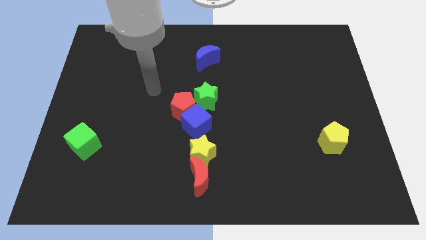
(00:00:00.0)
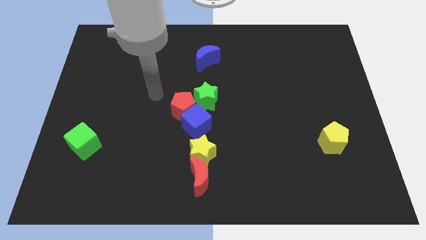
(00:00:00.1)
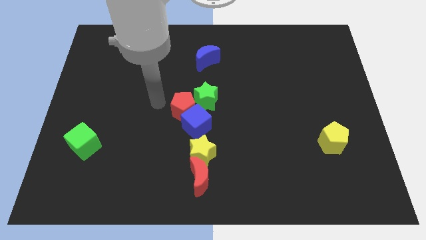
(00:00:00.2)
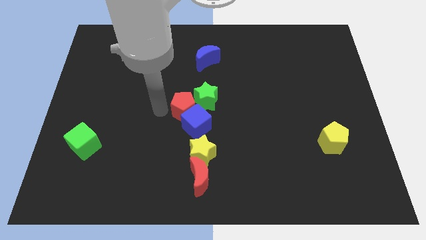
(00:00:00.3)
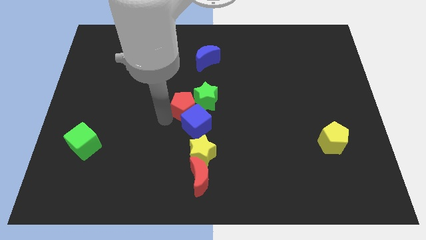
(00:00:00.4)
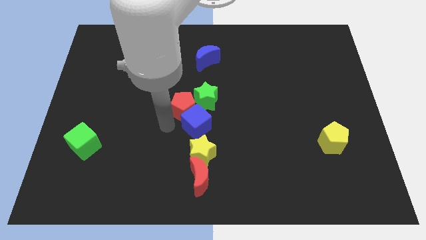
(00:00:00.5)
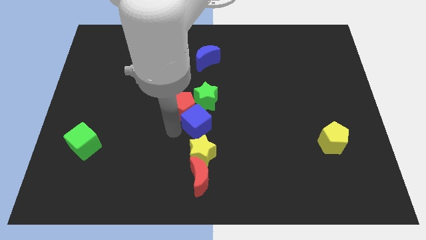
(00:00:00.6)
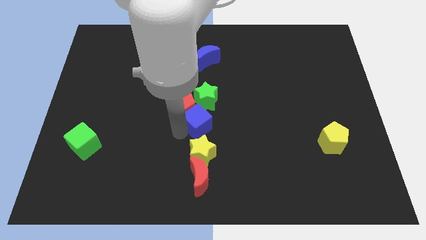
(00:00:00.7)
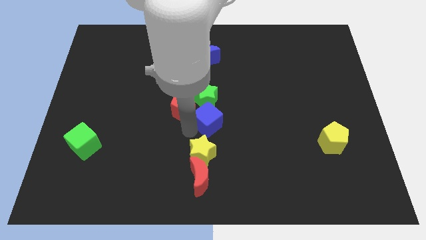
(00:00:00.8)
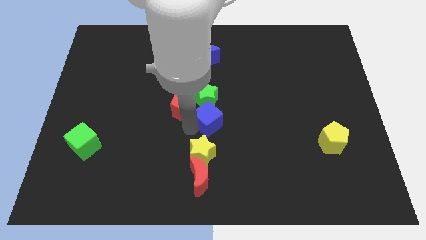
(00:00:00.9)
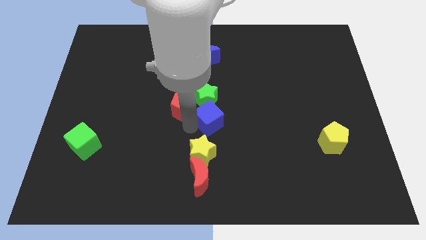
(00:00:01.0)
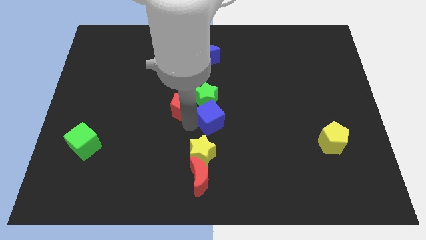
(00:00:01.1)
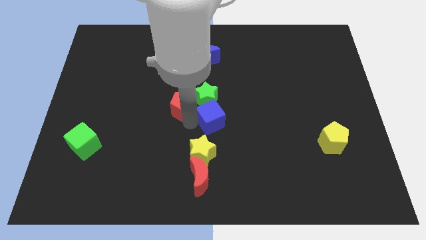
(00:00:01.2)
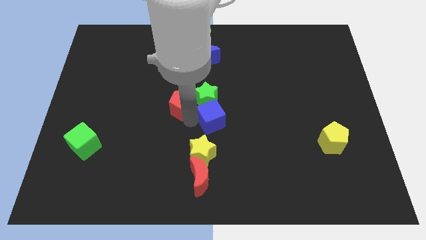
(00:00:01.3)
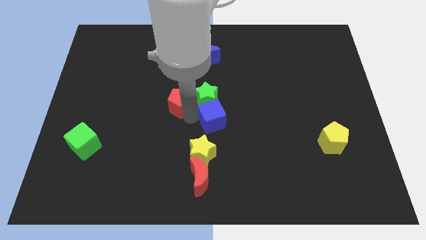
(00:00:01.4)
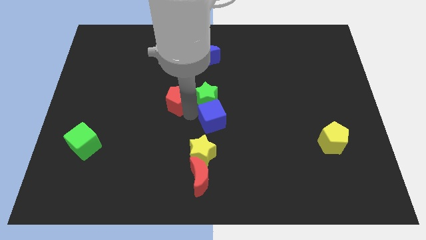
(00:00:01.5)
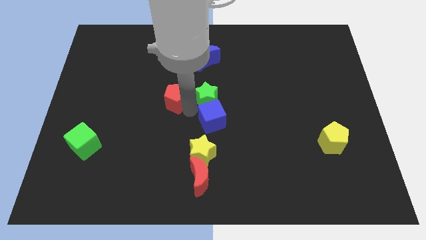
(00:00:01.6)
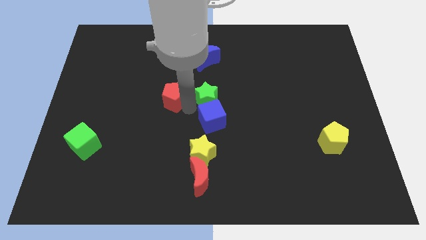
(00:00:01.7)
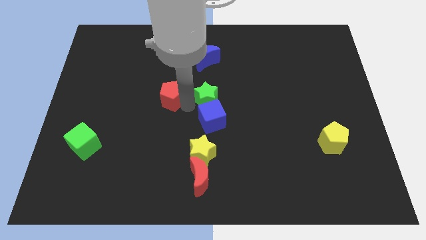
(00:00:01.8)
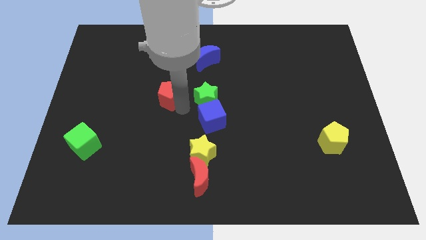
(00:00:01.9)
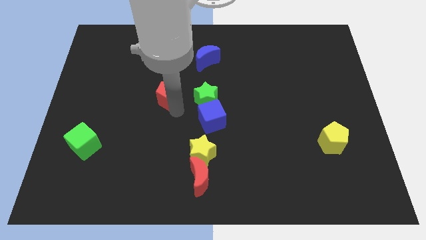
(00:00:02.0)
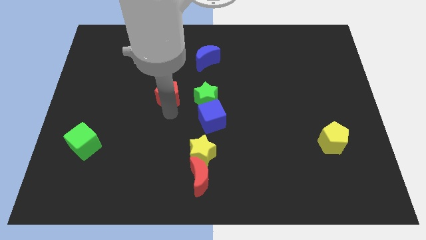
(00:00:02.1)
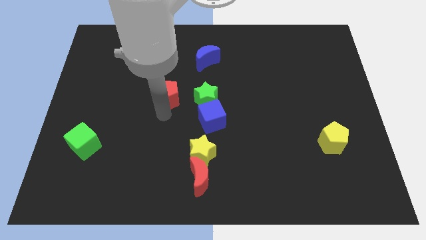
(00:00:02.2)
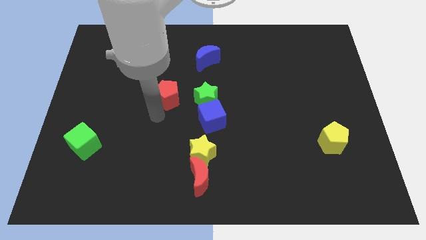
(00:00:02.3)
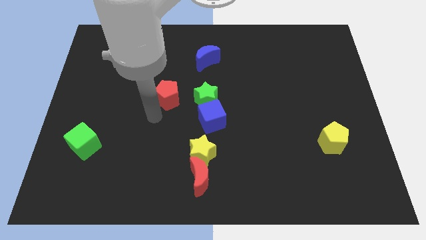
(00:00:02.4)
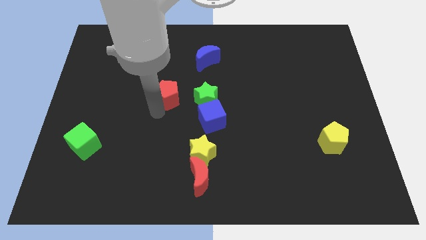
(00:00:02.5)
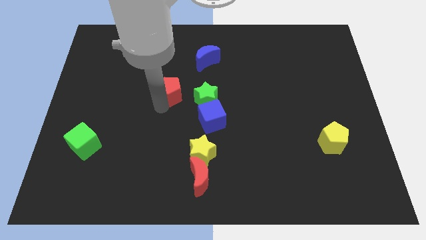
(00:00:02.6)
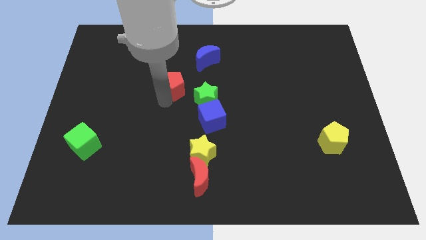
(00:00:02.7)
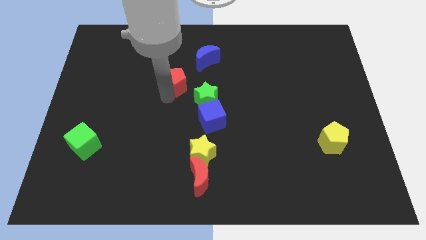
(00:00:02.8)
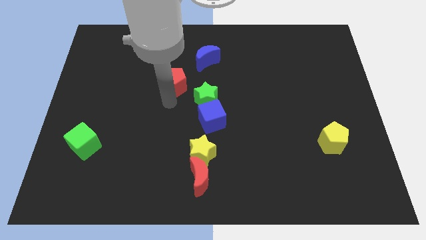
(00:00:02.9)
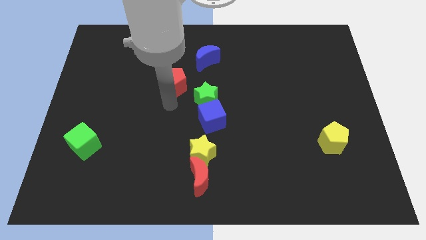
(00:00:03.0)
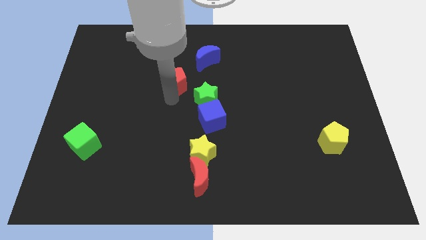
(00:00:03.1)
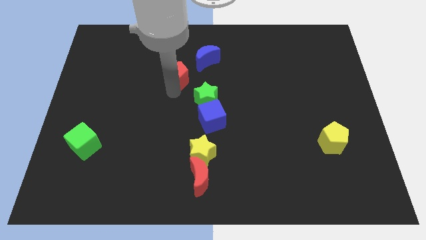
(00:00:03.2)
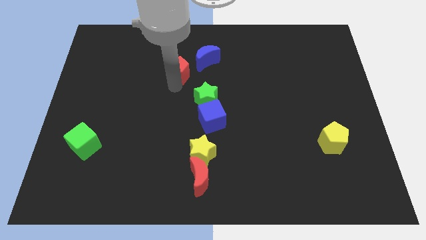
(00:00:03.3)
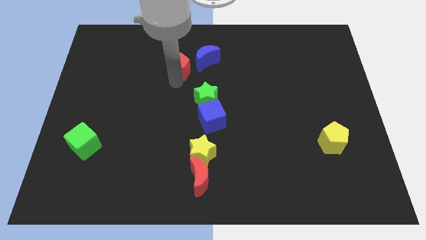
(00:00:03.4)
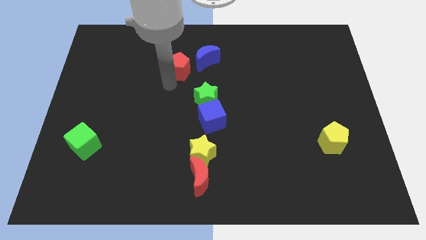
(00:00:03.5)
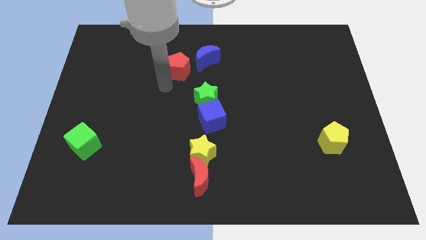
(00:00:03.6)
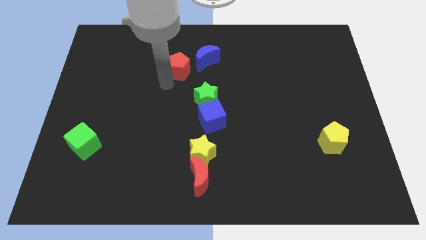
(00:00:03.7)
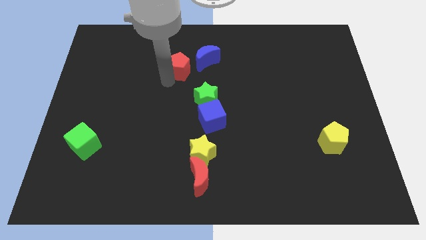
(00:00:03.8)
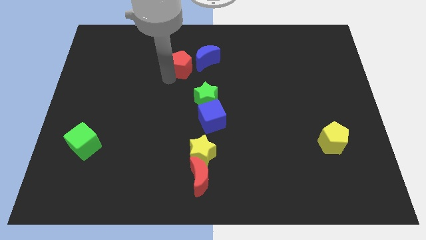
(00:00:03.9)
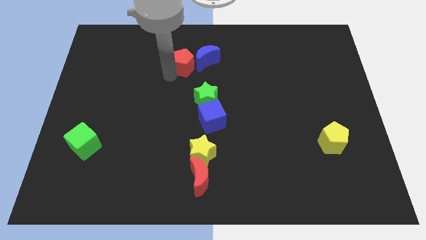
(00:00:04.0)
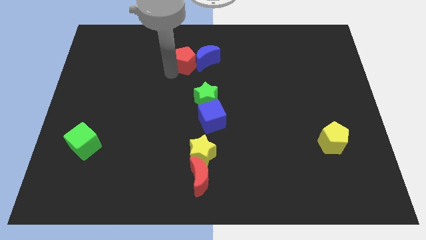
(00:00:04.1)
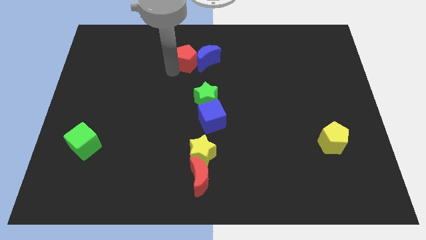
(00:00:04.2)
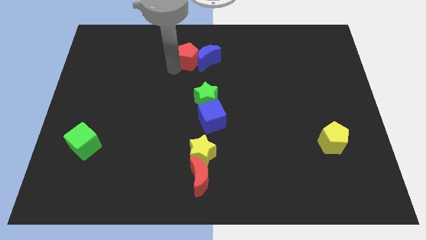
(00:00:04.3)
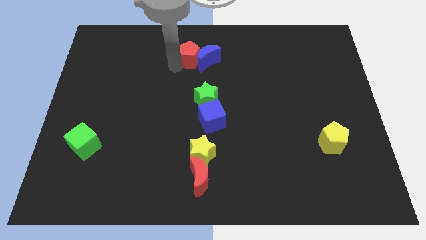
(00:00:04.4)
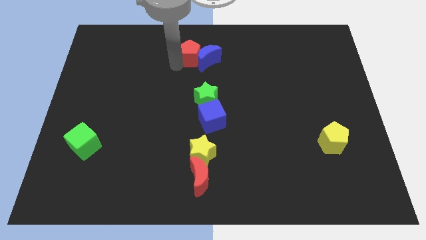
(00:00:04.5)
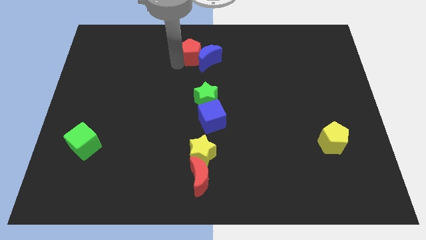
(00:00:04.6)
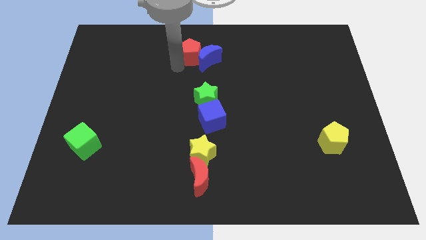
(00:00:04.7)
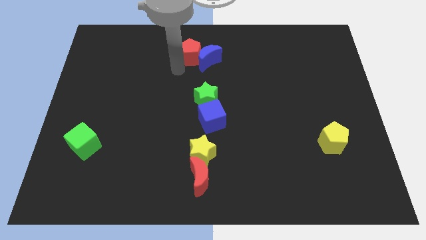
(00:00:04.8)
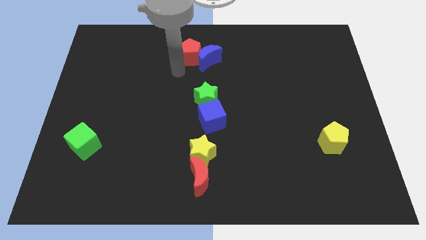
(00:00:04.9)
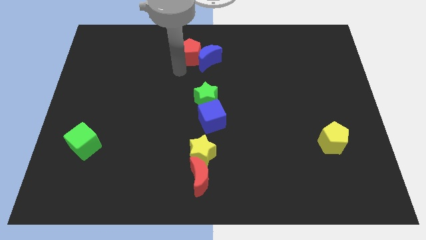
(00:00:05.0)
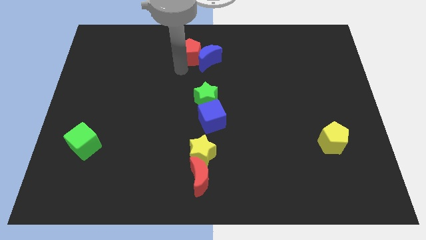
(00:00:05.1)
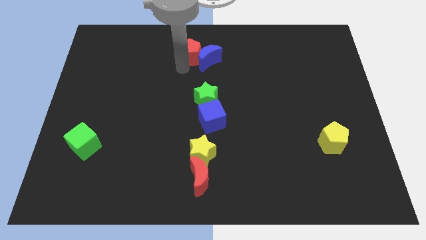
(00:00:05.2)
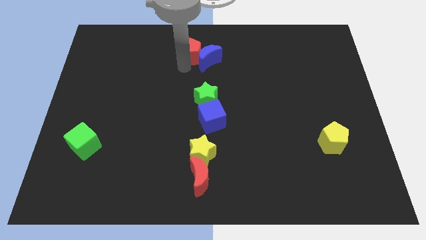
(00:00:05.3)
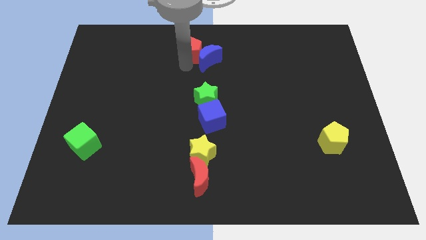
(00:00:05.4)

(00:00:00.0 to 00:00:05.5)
put the red pentagon to the towards your base

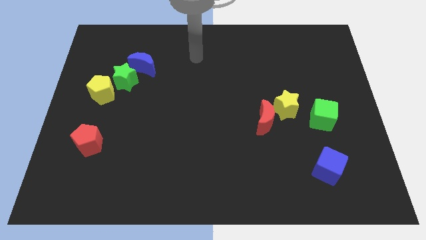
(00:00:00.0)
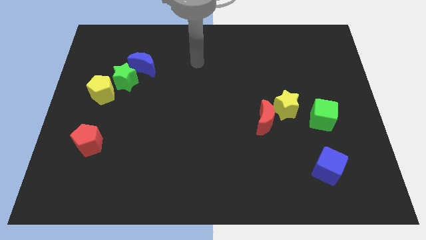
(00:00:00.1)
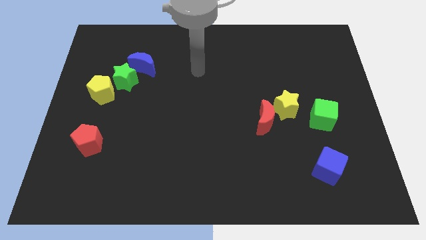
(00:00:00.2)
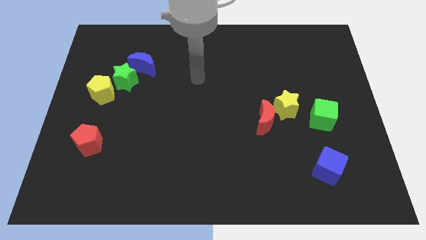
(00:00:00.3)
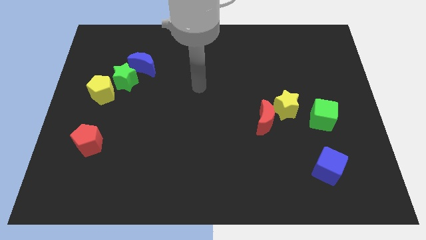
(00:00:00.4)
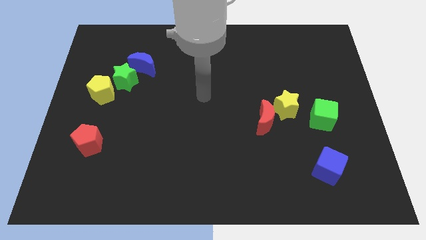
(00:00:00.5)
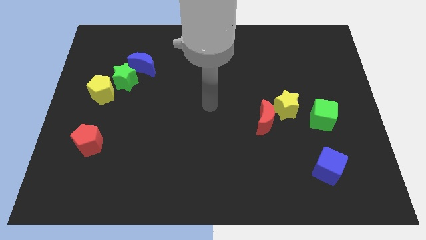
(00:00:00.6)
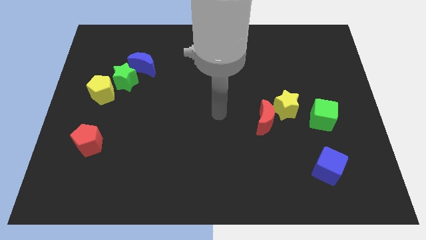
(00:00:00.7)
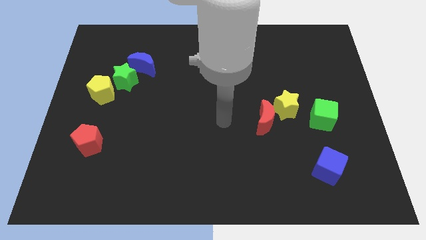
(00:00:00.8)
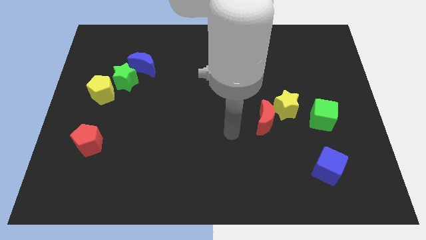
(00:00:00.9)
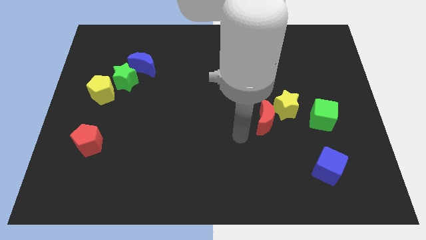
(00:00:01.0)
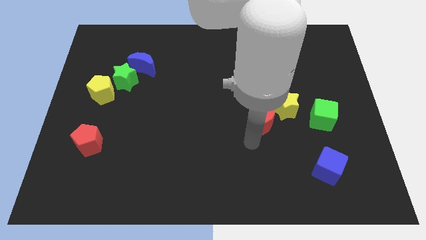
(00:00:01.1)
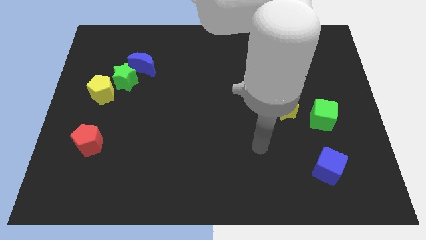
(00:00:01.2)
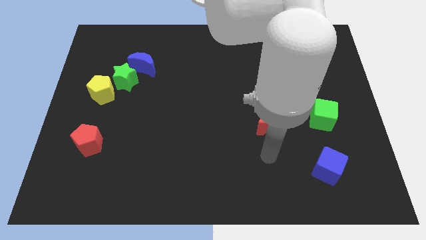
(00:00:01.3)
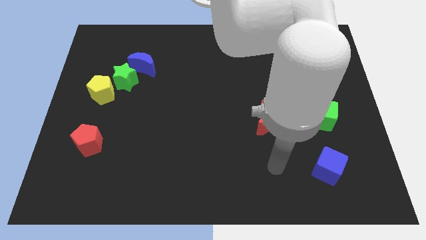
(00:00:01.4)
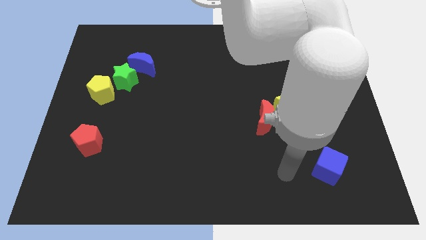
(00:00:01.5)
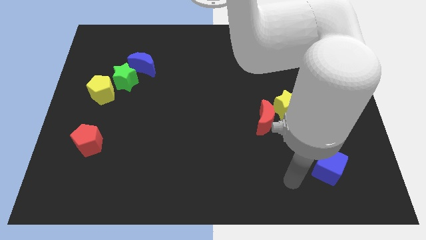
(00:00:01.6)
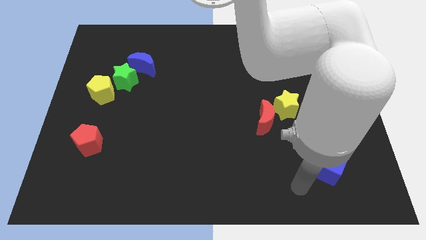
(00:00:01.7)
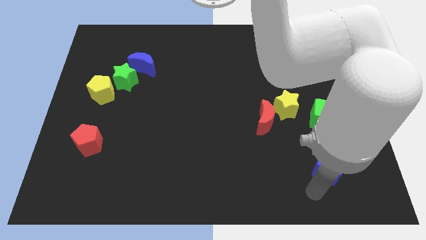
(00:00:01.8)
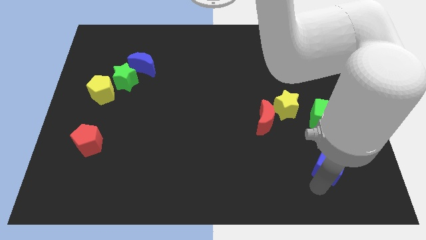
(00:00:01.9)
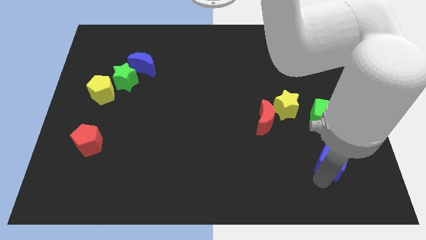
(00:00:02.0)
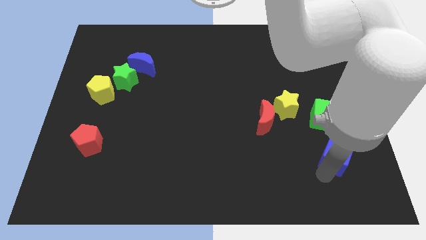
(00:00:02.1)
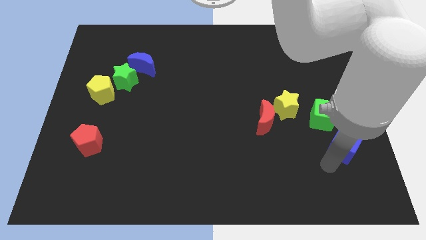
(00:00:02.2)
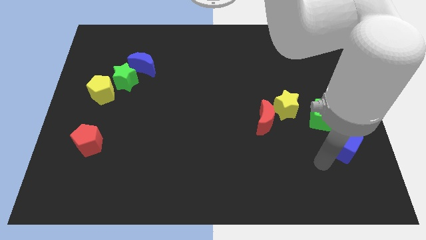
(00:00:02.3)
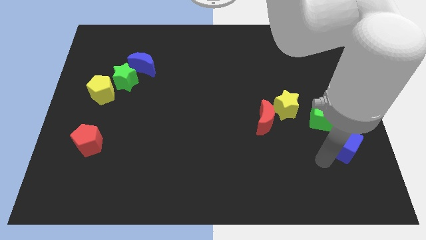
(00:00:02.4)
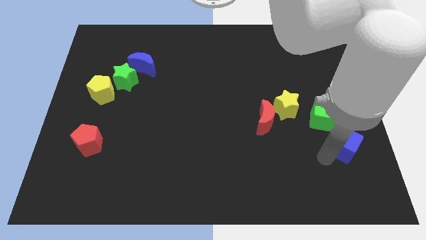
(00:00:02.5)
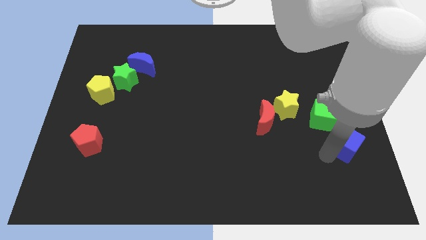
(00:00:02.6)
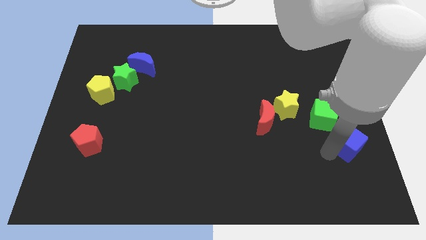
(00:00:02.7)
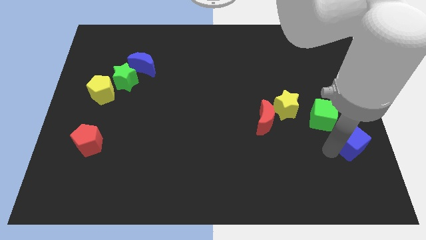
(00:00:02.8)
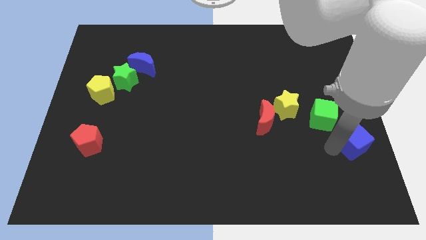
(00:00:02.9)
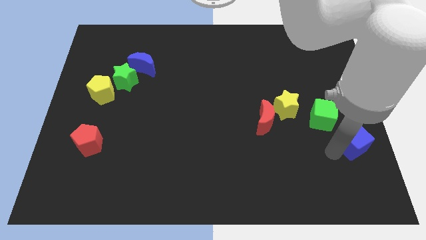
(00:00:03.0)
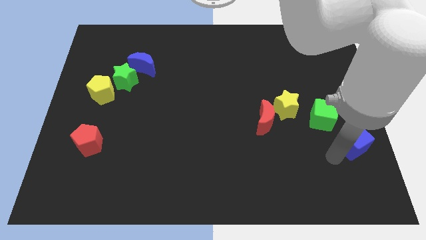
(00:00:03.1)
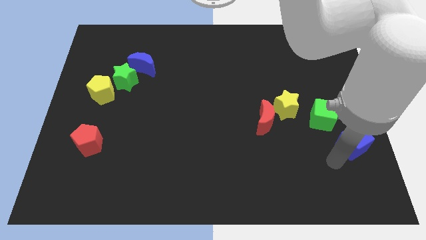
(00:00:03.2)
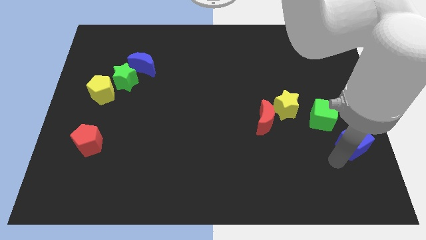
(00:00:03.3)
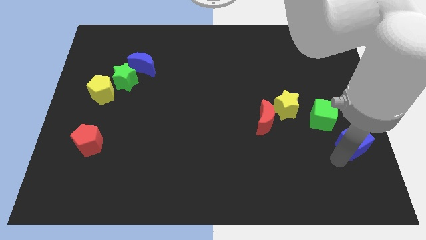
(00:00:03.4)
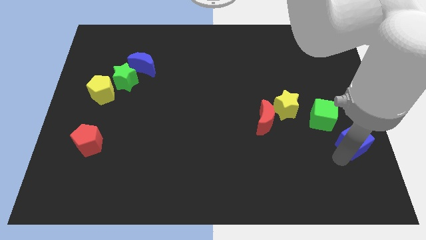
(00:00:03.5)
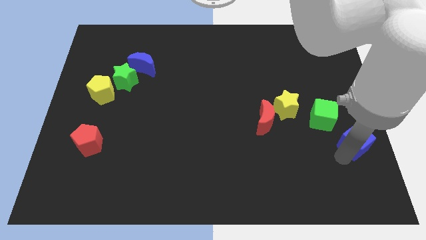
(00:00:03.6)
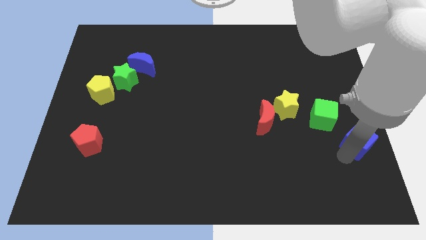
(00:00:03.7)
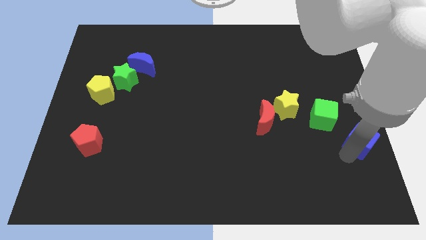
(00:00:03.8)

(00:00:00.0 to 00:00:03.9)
put the blue cube to the right side
